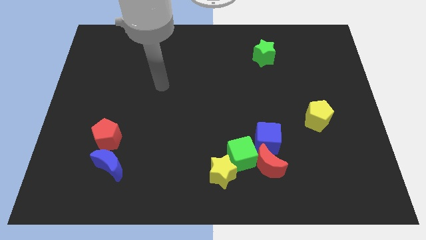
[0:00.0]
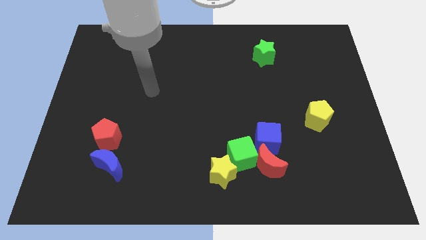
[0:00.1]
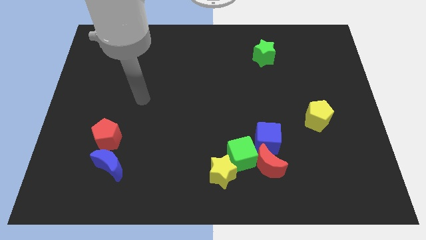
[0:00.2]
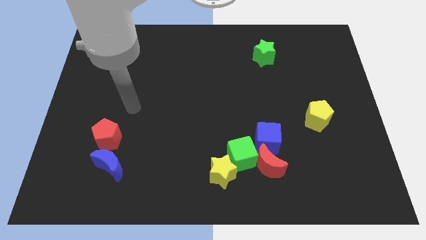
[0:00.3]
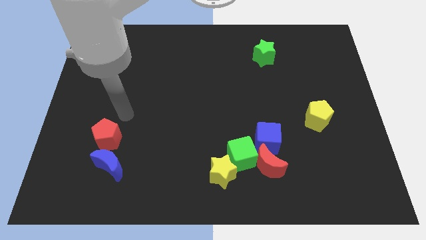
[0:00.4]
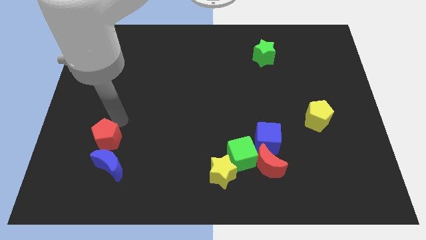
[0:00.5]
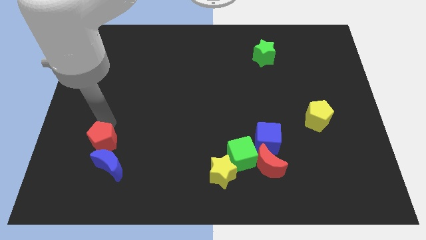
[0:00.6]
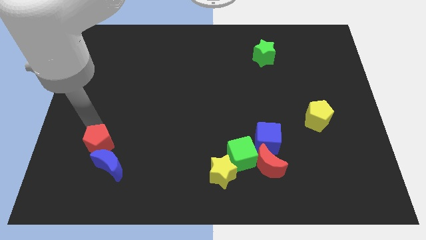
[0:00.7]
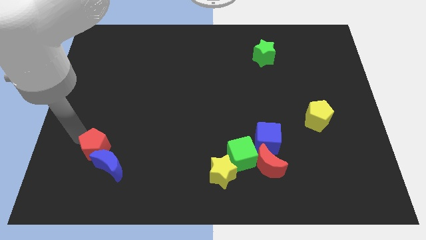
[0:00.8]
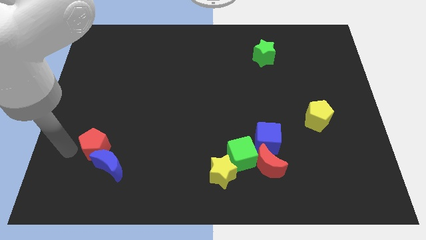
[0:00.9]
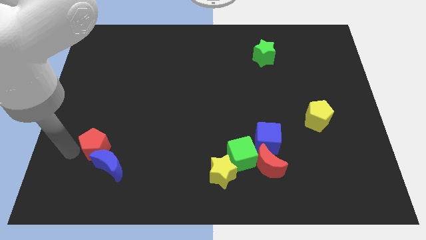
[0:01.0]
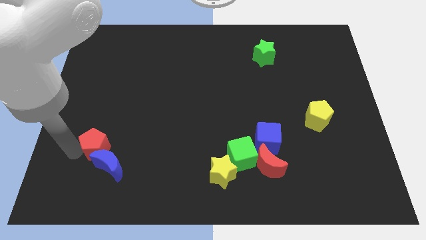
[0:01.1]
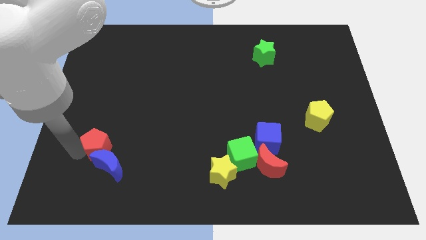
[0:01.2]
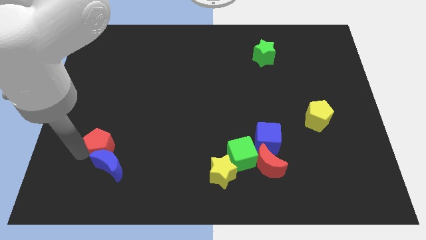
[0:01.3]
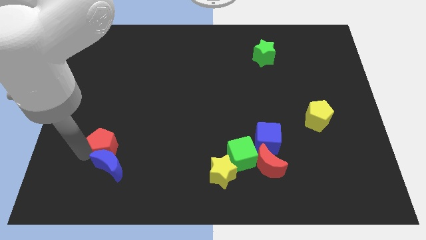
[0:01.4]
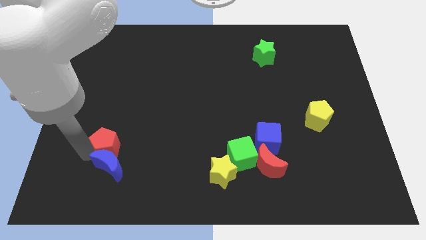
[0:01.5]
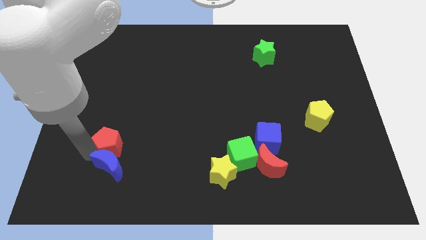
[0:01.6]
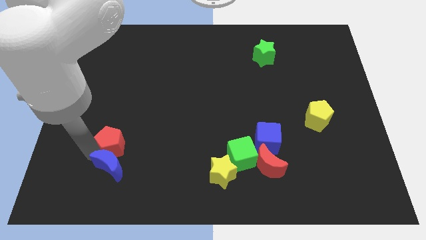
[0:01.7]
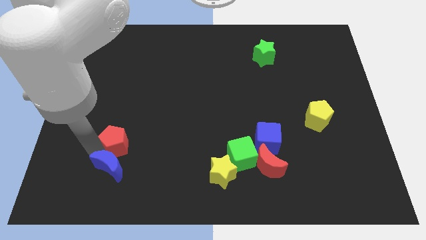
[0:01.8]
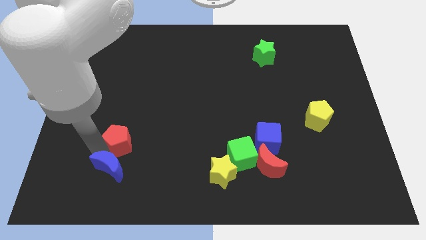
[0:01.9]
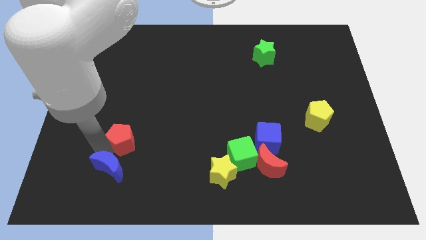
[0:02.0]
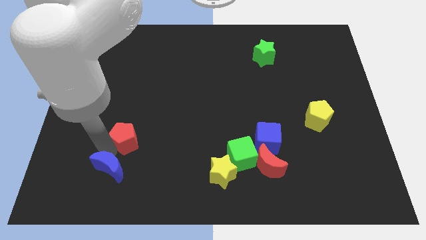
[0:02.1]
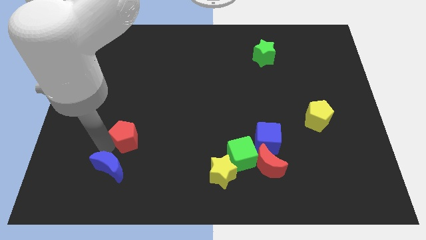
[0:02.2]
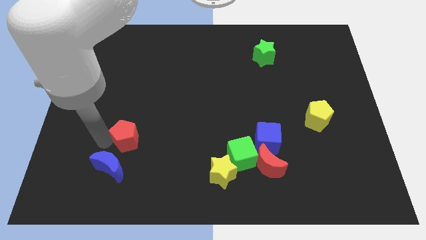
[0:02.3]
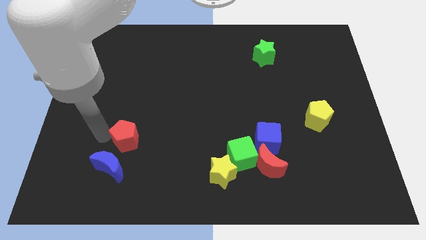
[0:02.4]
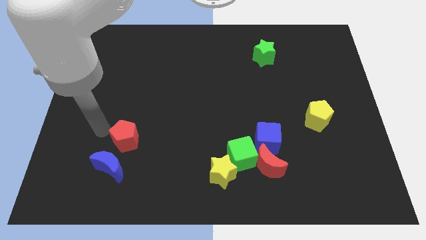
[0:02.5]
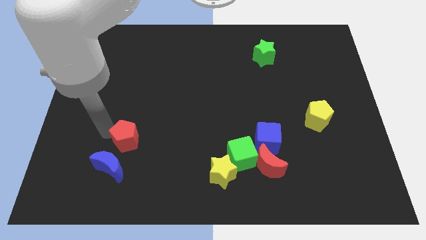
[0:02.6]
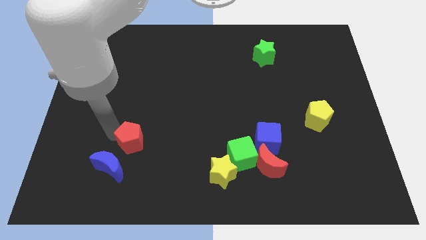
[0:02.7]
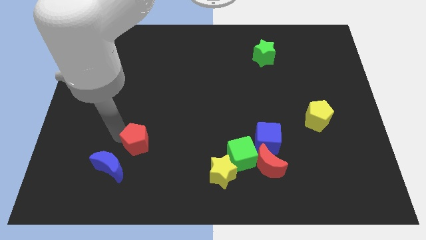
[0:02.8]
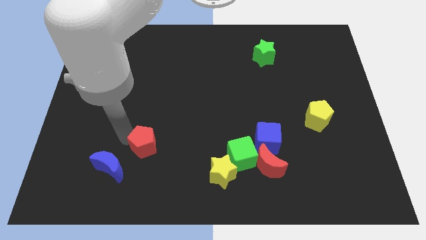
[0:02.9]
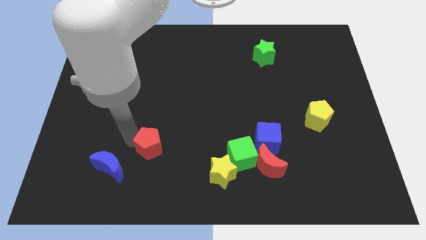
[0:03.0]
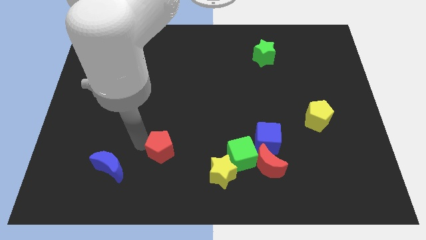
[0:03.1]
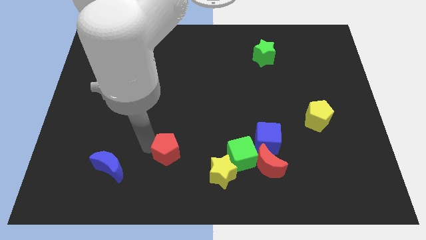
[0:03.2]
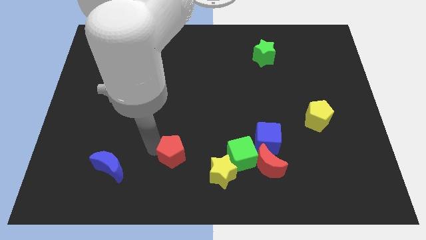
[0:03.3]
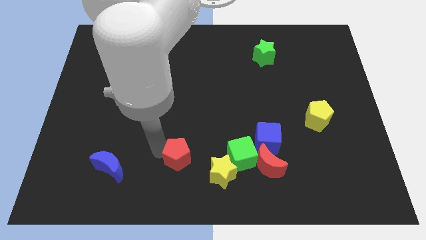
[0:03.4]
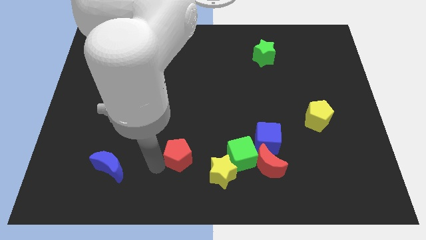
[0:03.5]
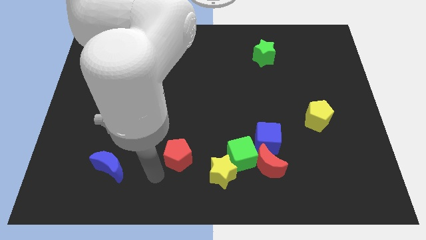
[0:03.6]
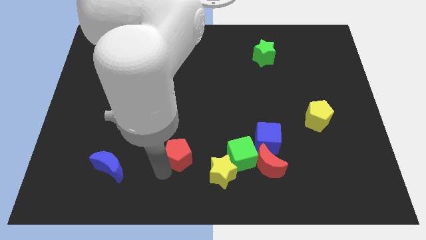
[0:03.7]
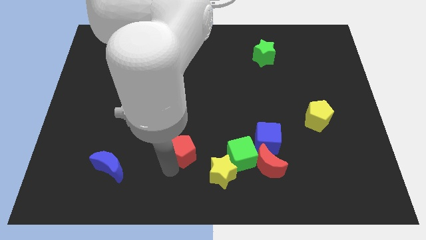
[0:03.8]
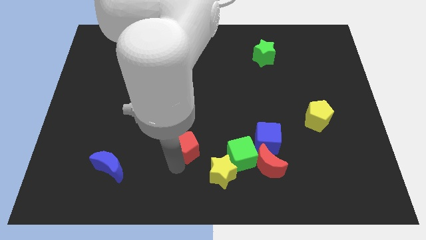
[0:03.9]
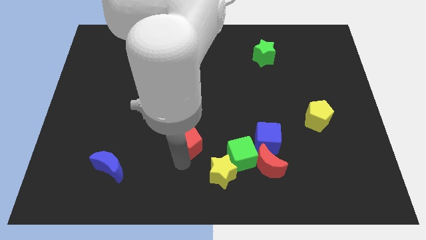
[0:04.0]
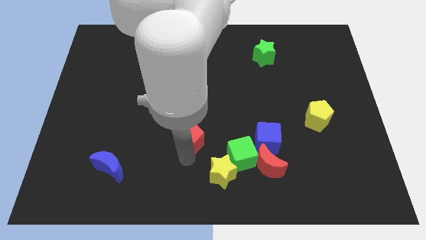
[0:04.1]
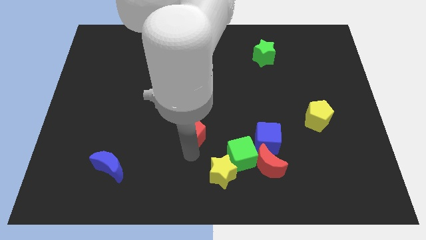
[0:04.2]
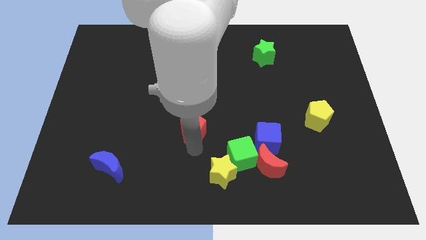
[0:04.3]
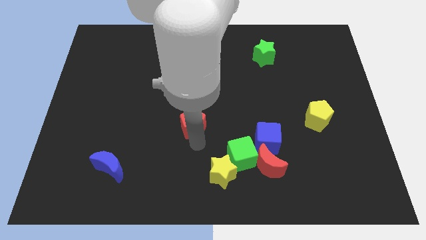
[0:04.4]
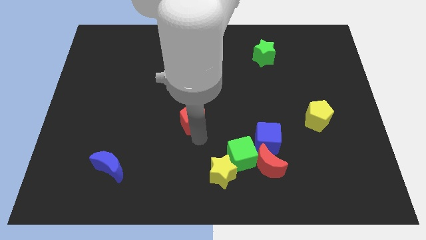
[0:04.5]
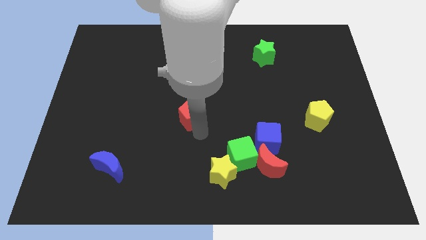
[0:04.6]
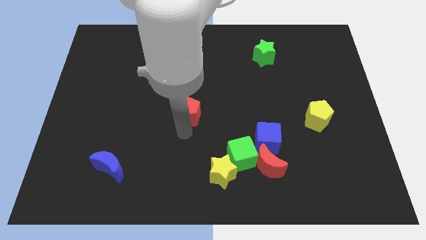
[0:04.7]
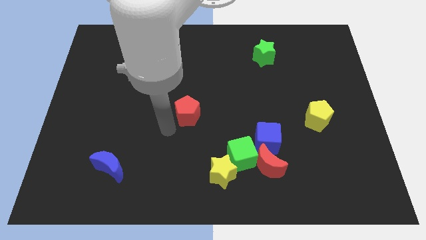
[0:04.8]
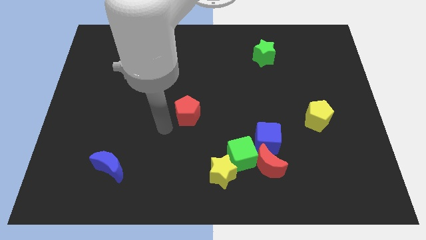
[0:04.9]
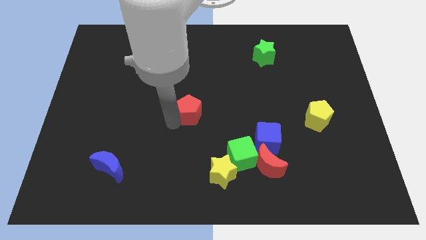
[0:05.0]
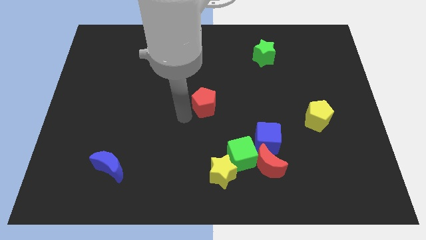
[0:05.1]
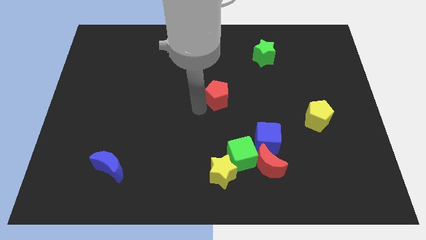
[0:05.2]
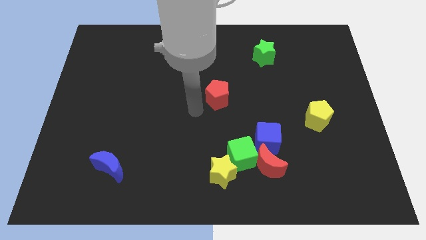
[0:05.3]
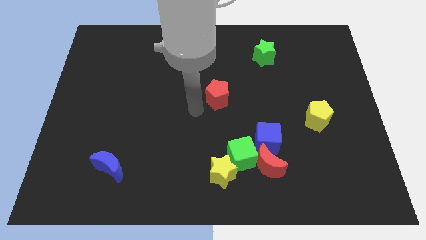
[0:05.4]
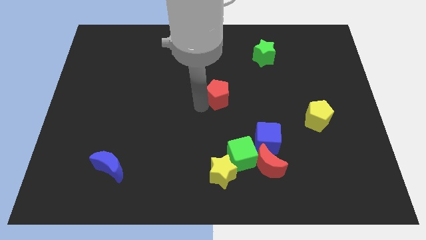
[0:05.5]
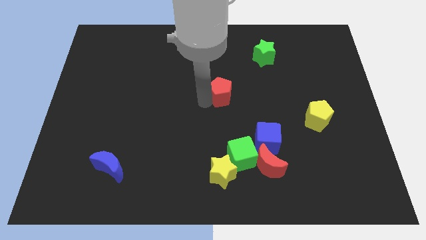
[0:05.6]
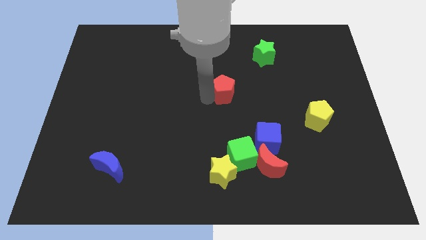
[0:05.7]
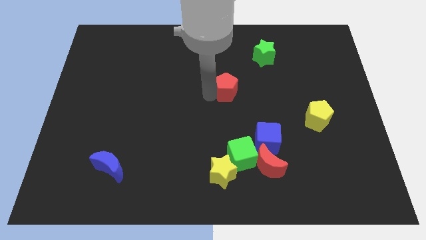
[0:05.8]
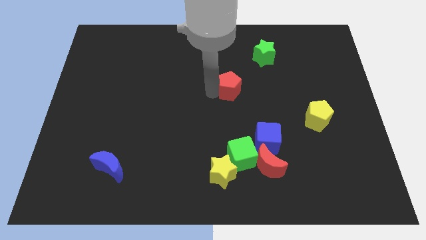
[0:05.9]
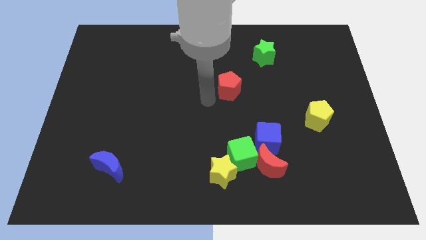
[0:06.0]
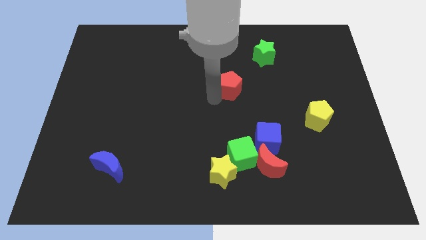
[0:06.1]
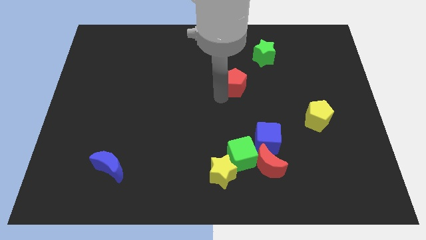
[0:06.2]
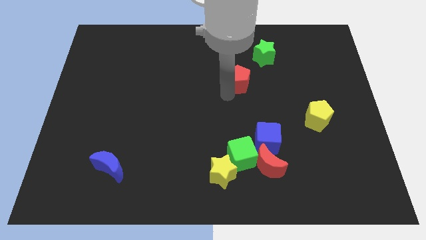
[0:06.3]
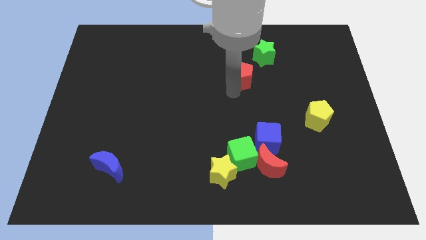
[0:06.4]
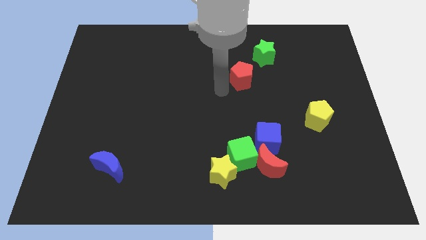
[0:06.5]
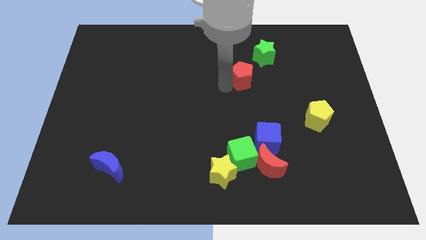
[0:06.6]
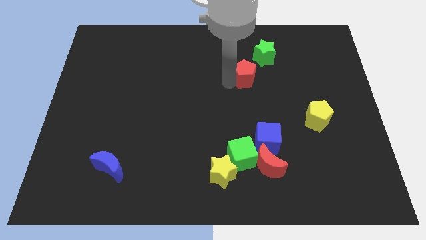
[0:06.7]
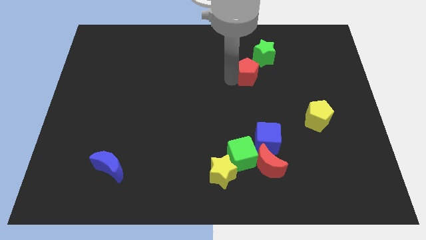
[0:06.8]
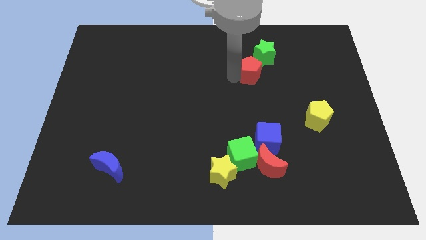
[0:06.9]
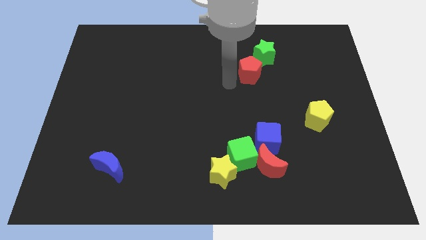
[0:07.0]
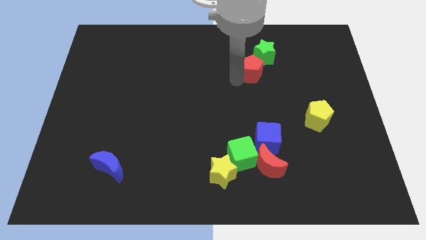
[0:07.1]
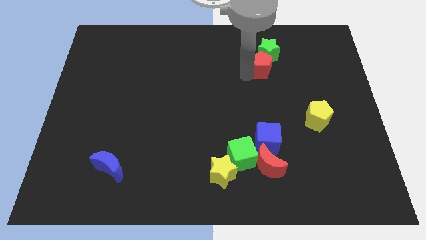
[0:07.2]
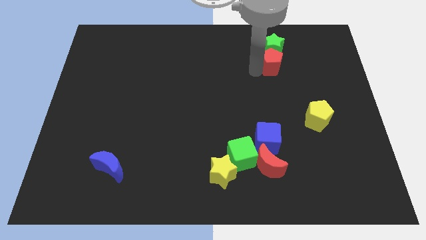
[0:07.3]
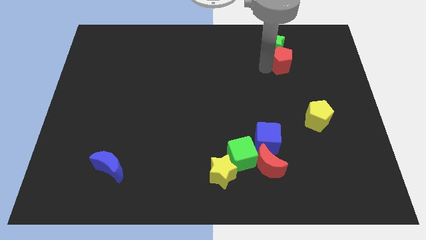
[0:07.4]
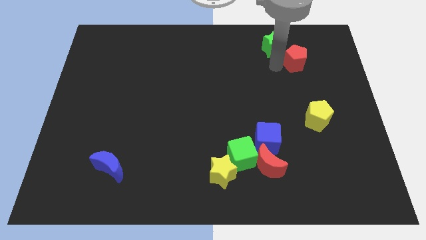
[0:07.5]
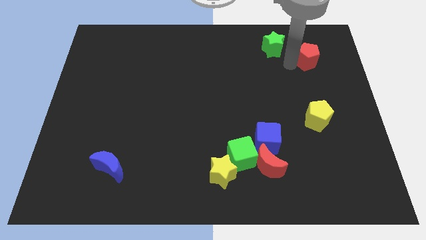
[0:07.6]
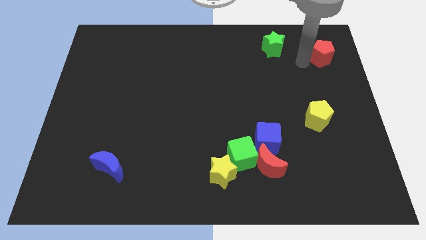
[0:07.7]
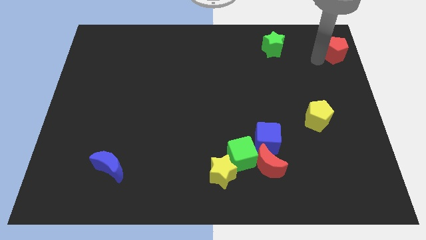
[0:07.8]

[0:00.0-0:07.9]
slide the red pentagon to the top right
